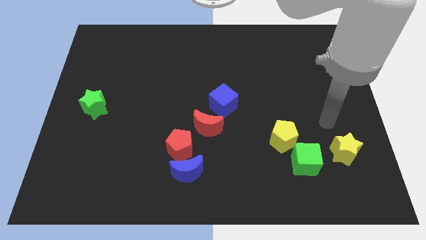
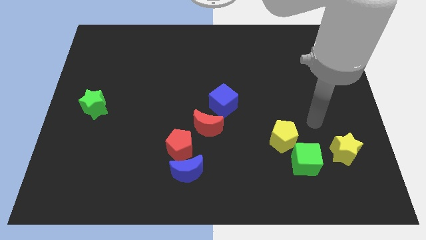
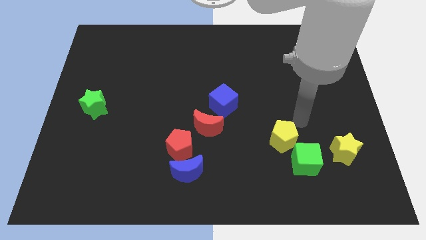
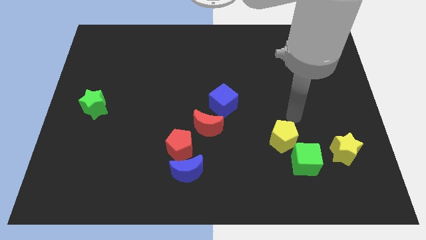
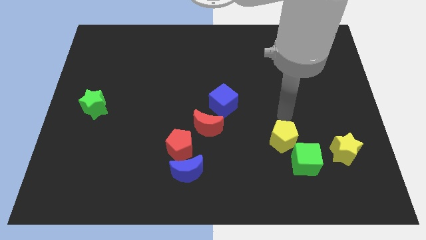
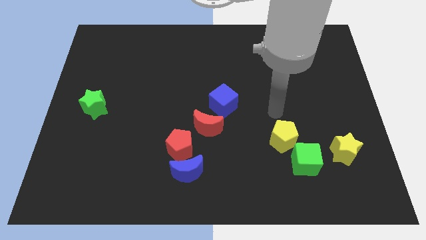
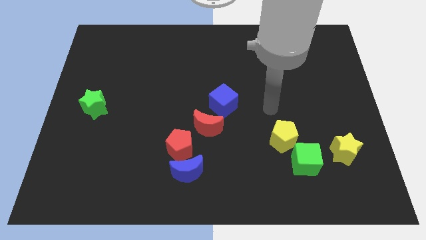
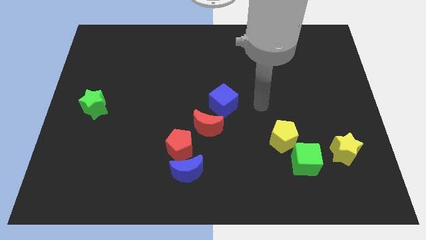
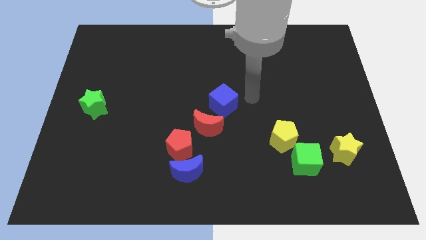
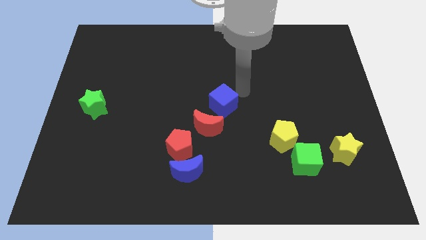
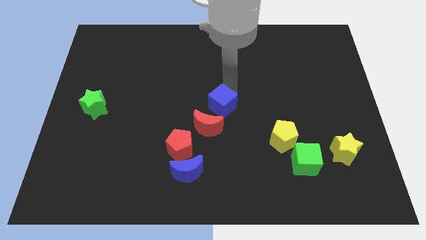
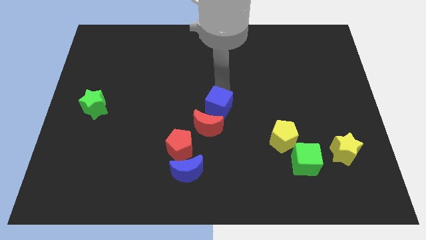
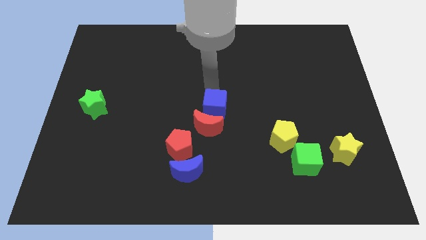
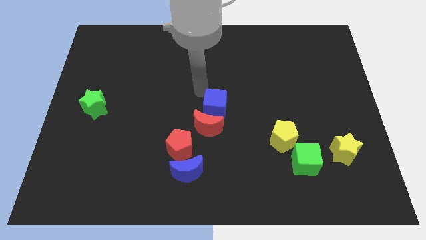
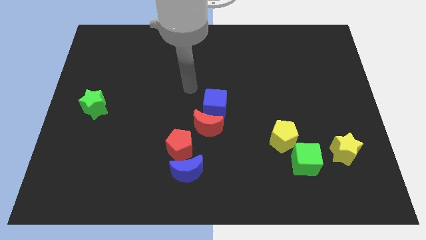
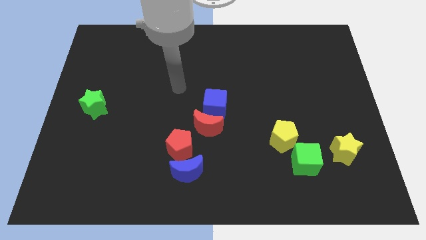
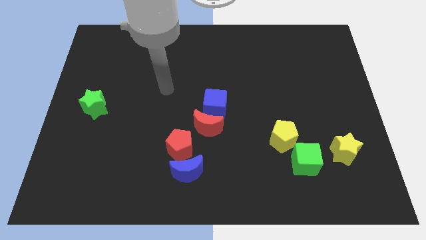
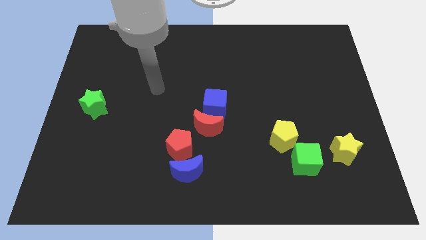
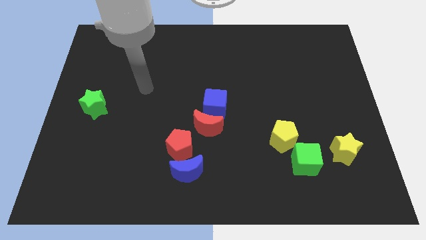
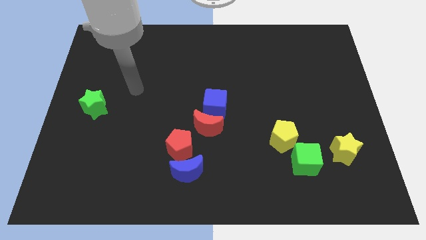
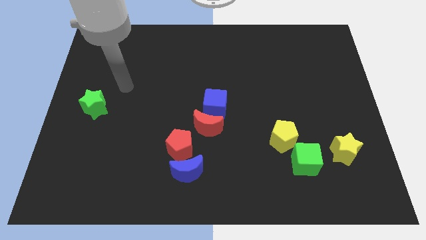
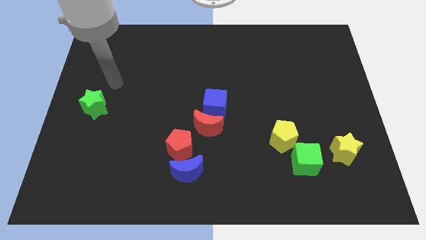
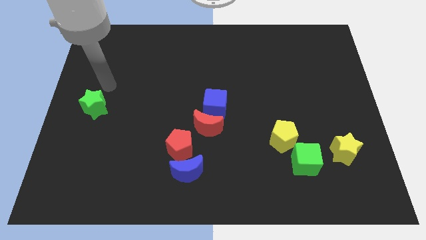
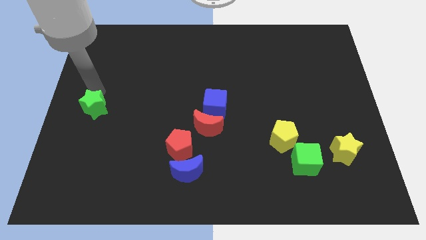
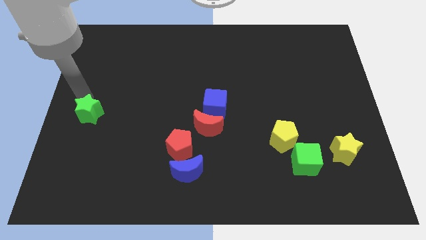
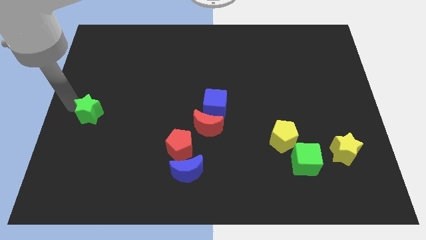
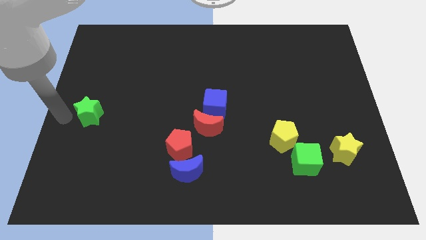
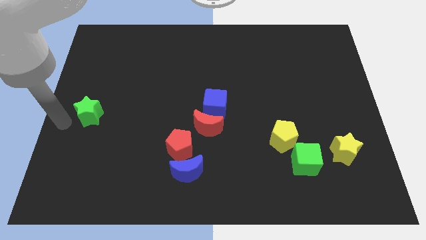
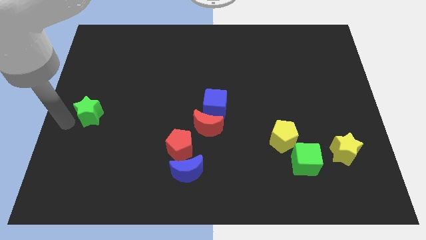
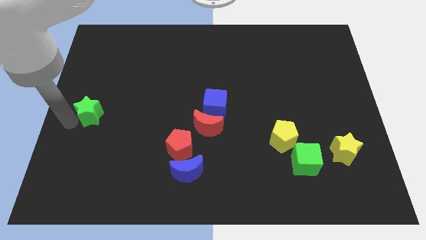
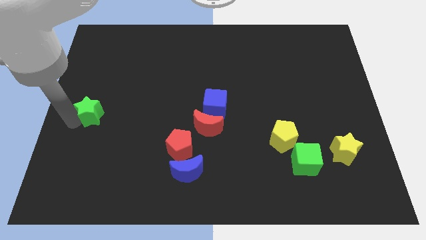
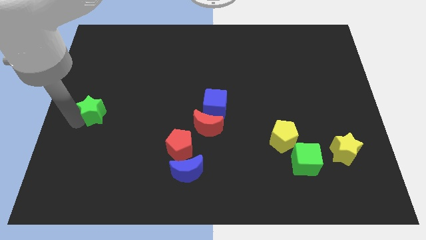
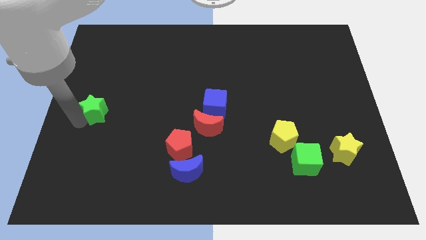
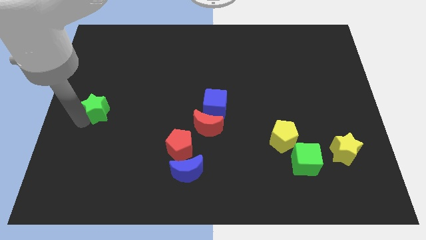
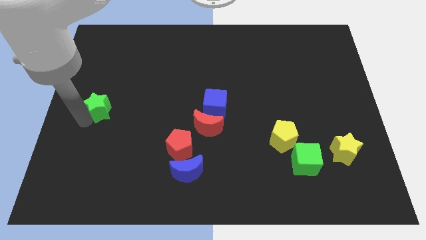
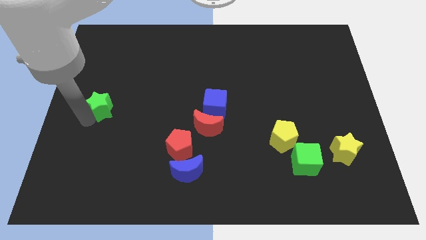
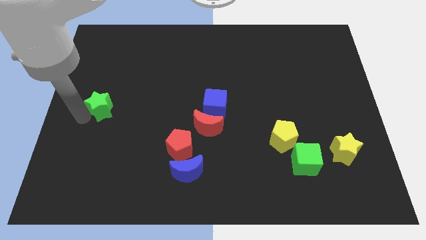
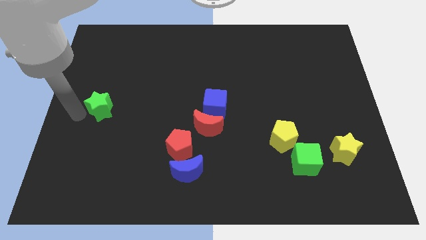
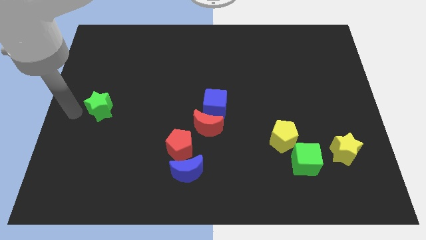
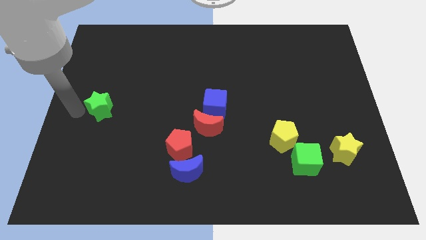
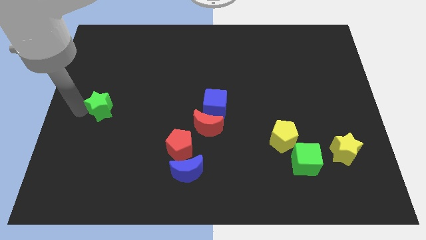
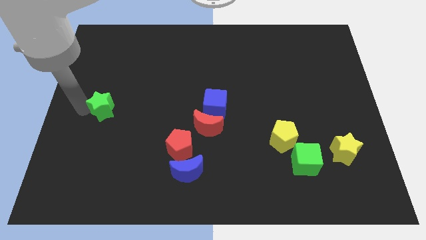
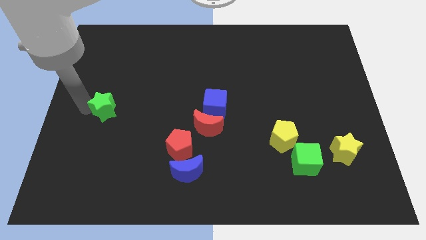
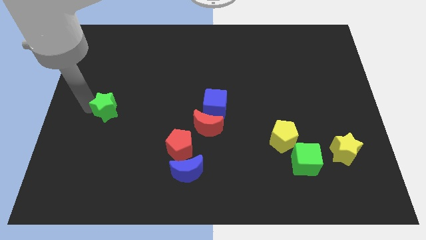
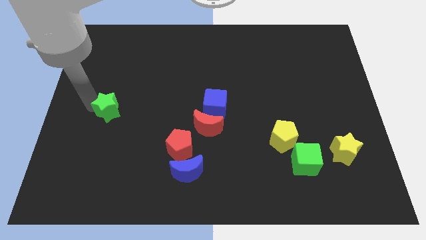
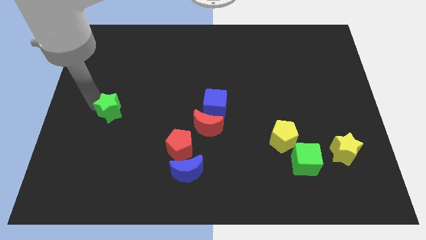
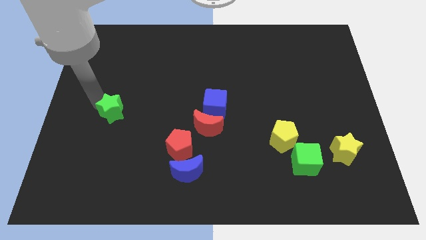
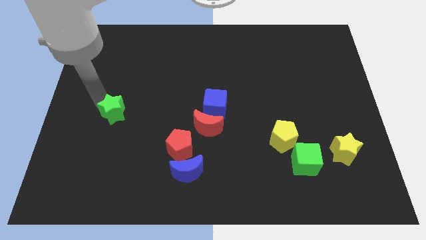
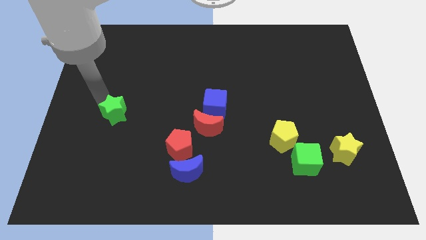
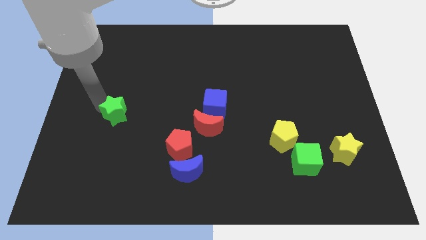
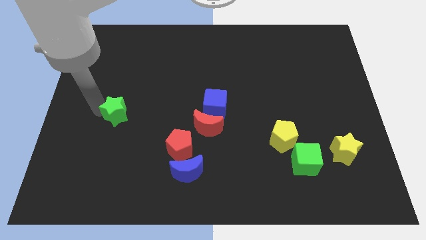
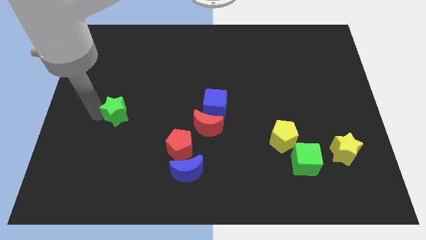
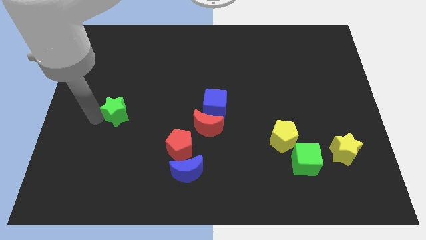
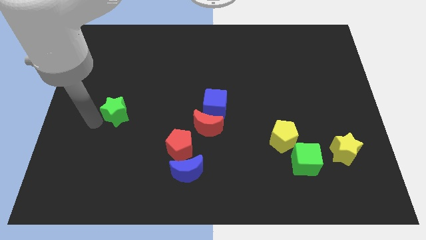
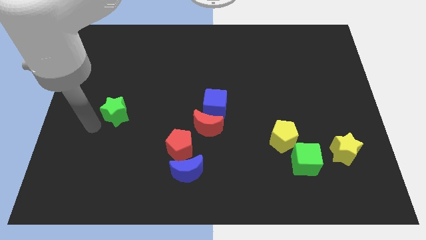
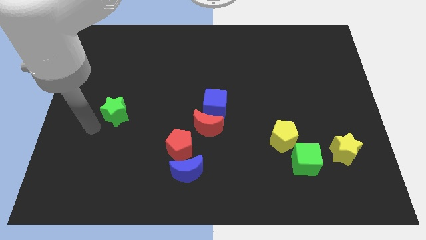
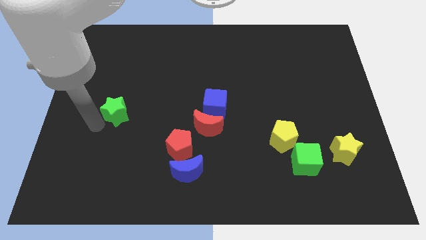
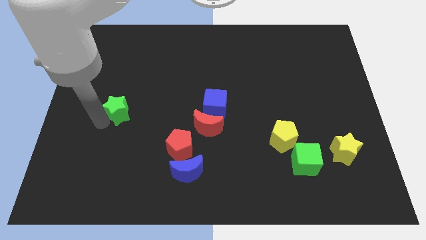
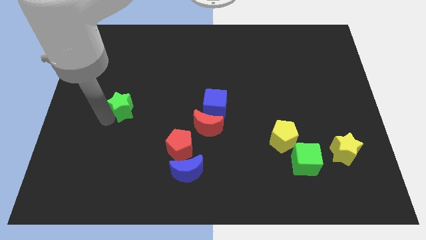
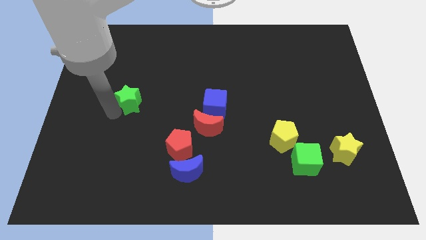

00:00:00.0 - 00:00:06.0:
move the green star a bit right

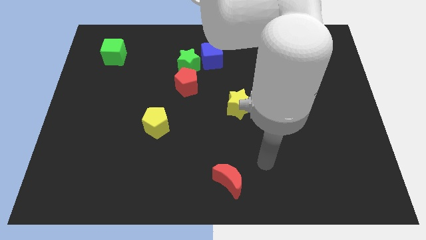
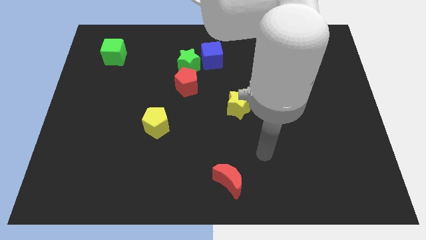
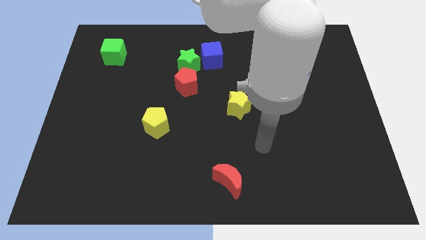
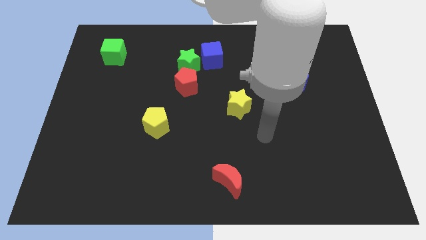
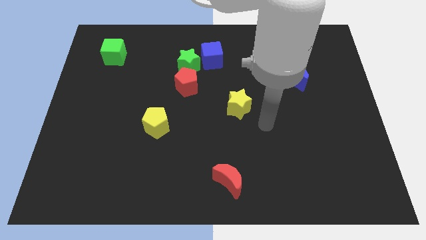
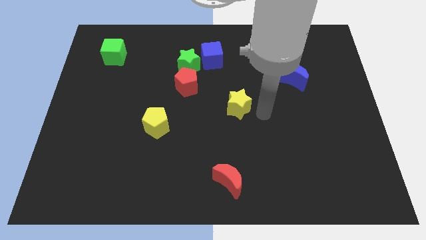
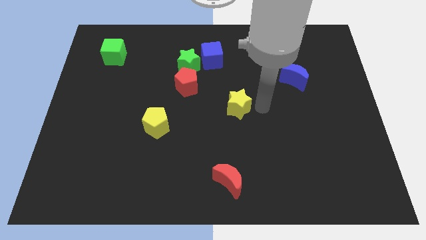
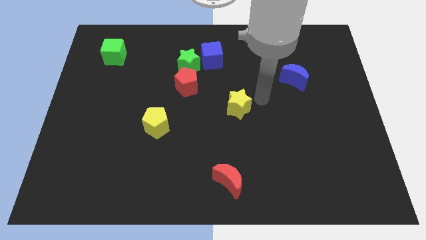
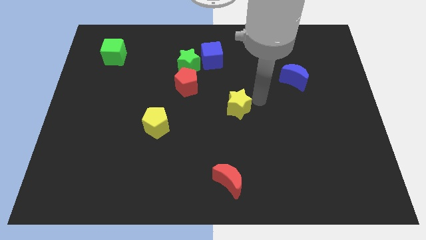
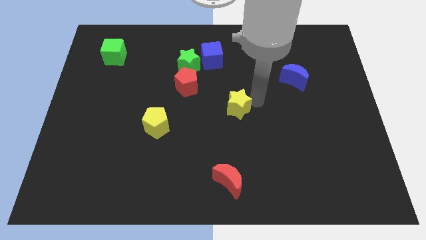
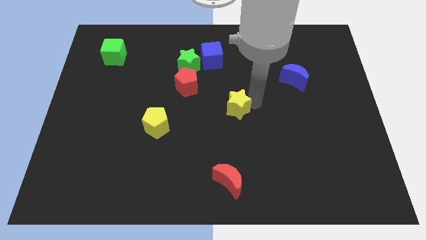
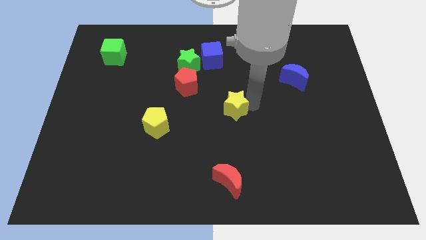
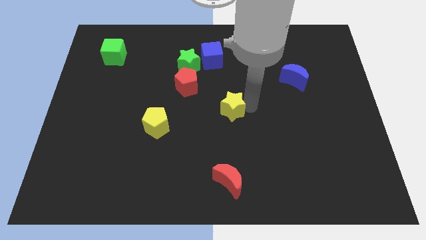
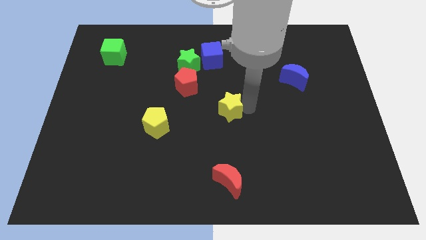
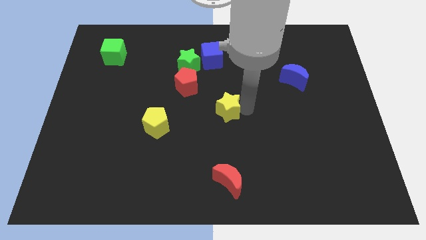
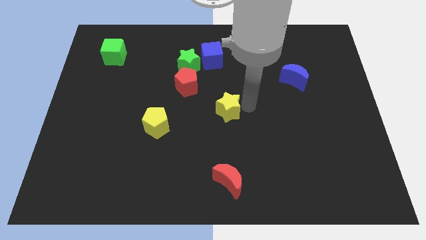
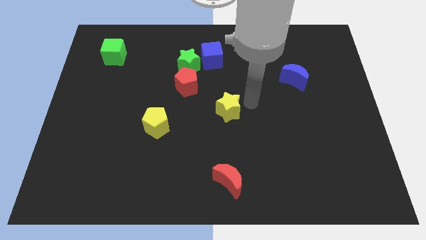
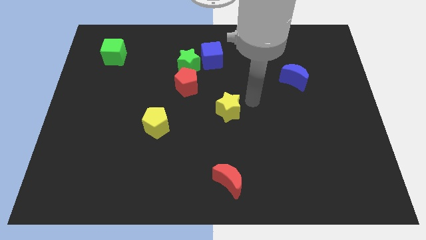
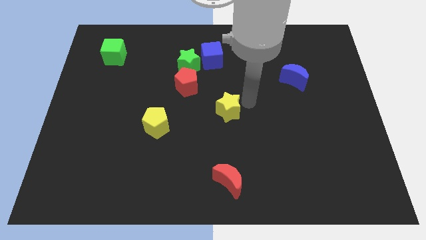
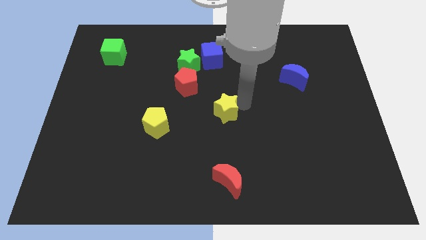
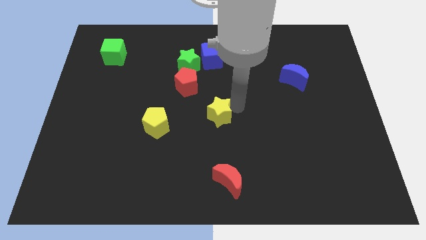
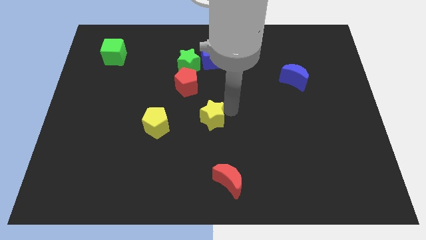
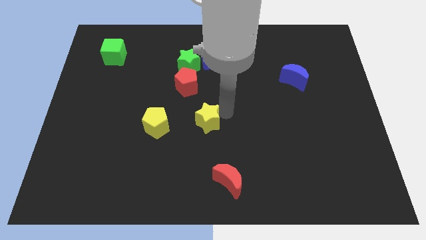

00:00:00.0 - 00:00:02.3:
slightly move the yellow star downwards and to the left
